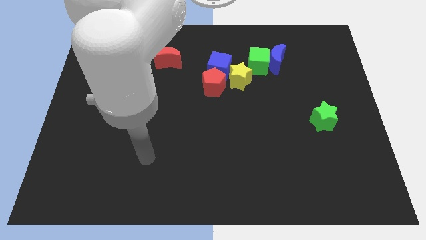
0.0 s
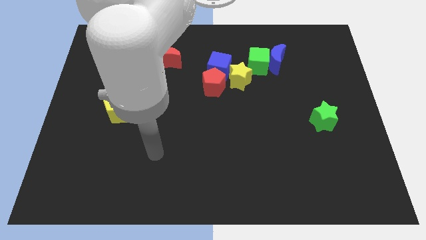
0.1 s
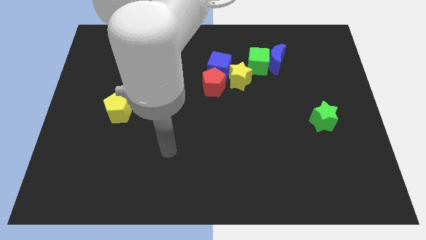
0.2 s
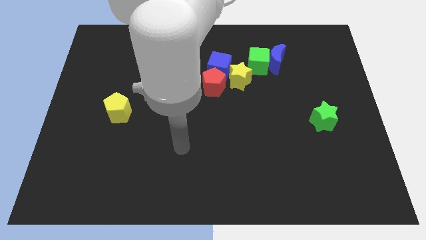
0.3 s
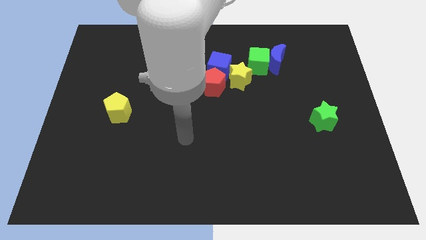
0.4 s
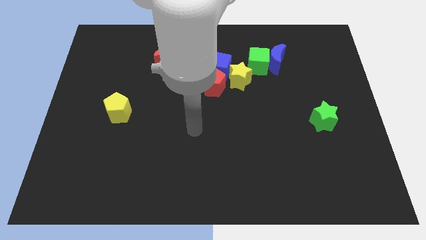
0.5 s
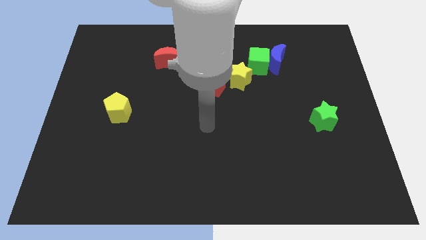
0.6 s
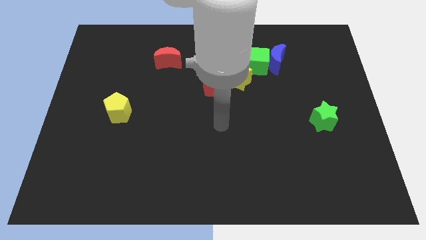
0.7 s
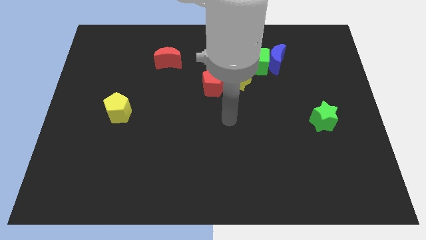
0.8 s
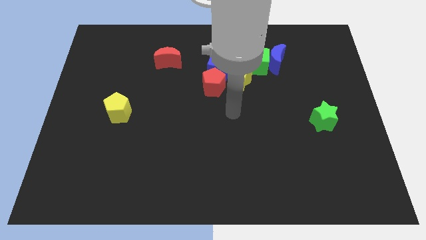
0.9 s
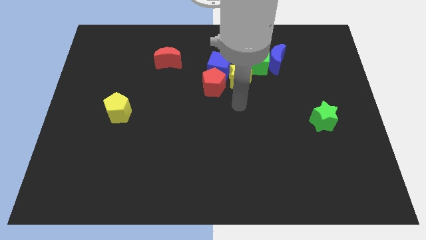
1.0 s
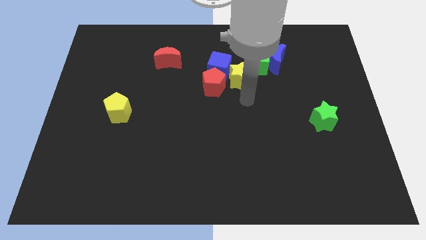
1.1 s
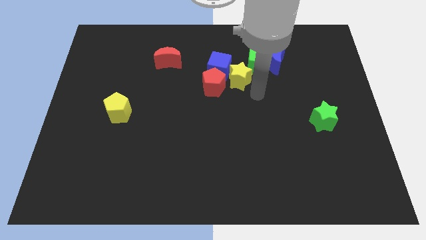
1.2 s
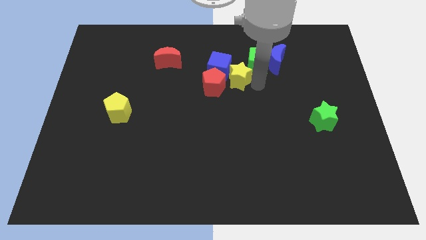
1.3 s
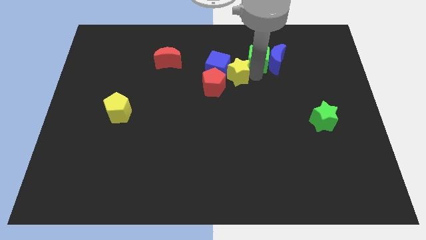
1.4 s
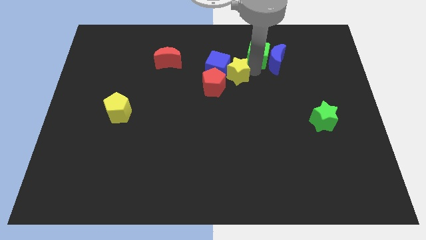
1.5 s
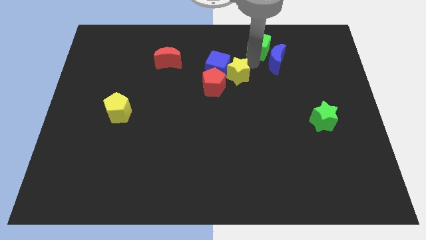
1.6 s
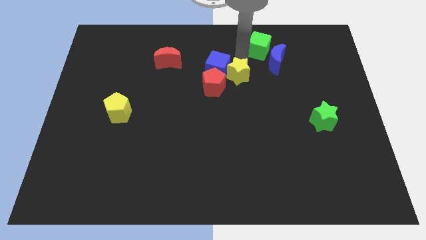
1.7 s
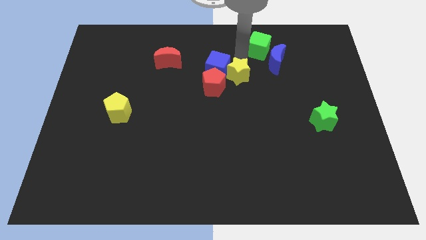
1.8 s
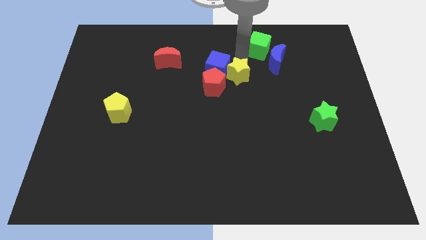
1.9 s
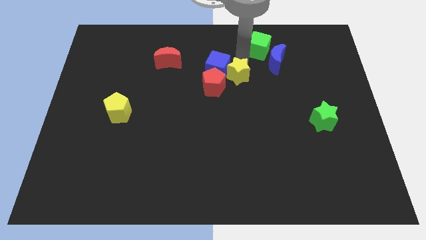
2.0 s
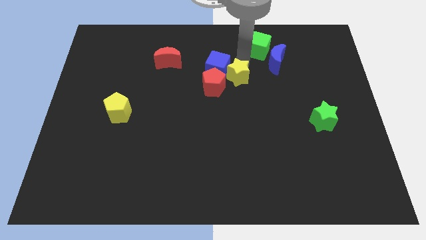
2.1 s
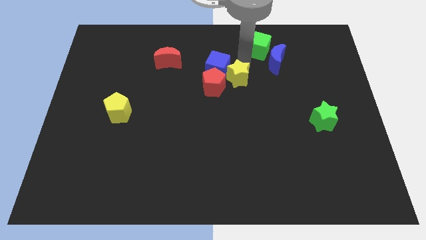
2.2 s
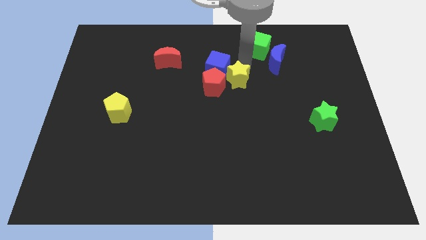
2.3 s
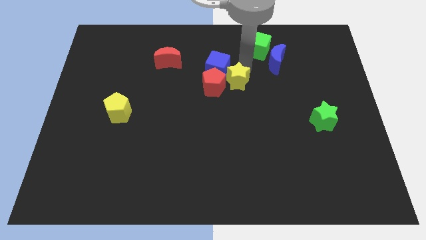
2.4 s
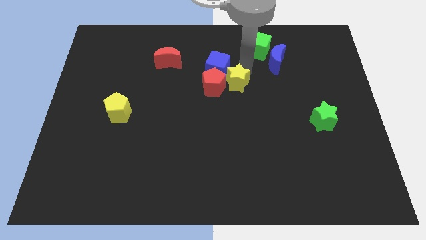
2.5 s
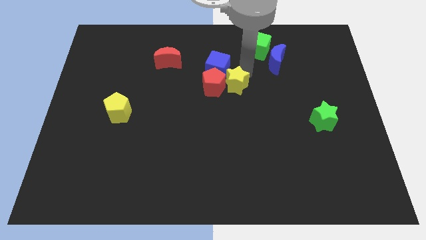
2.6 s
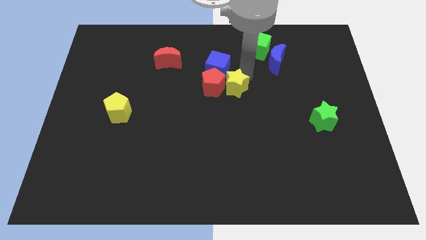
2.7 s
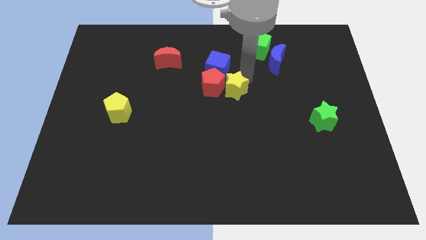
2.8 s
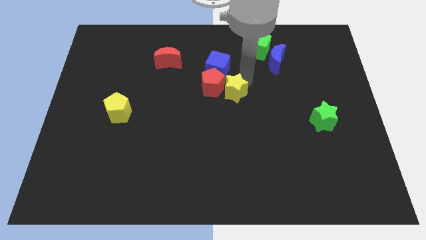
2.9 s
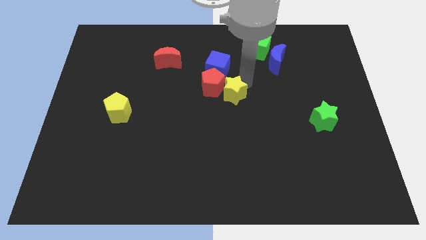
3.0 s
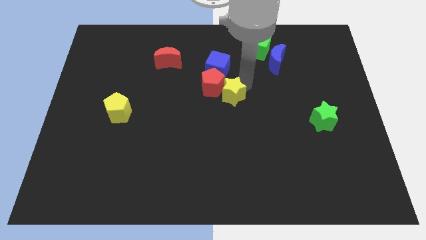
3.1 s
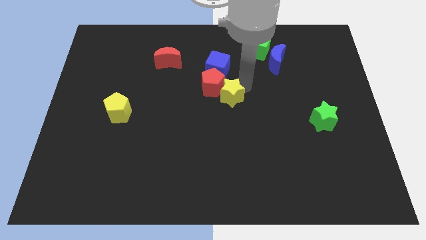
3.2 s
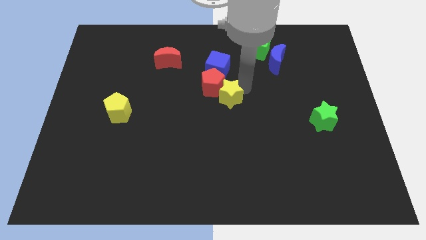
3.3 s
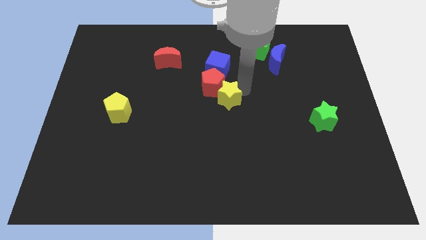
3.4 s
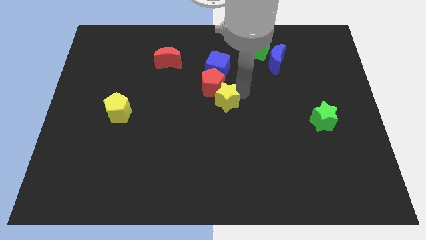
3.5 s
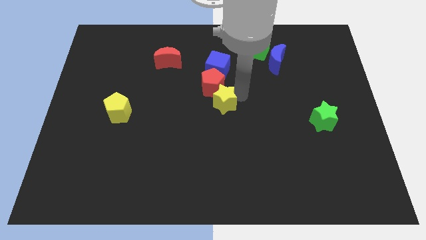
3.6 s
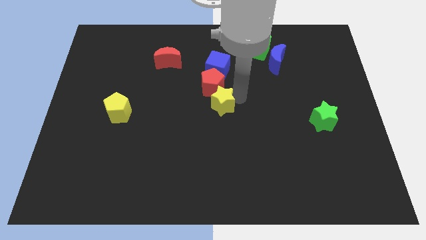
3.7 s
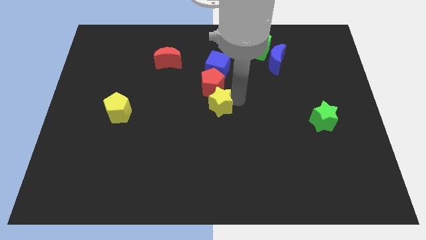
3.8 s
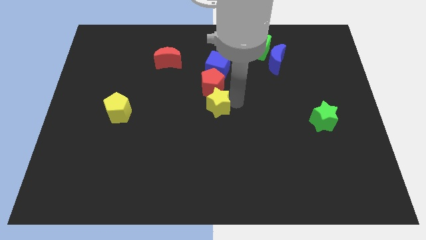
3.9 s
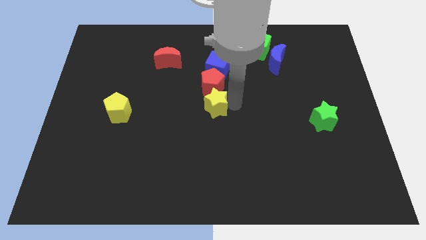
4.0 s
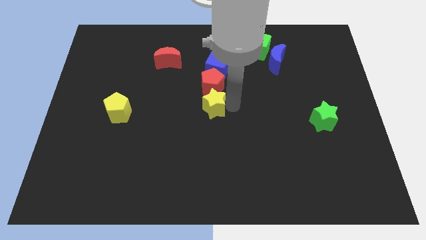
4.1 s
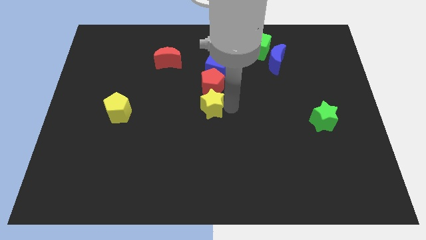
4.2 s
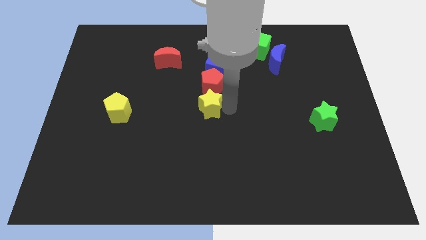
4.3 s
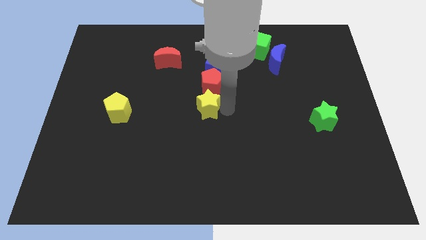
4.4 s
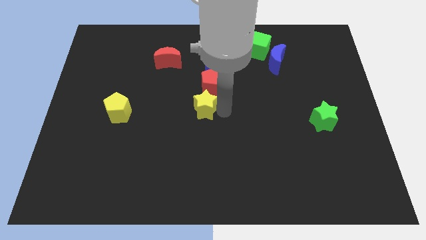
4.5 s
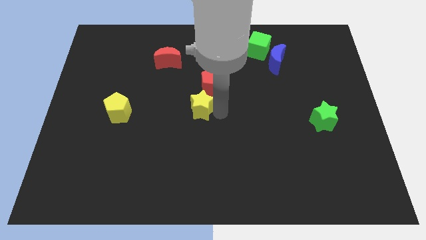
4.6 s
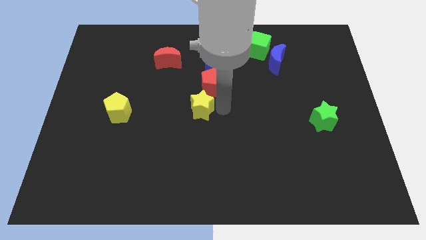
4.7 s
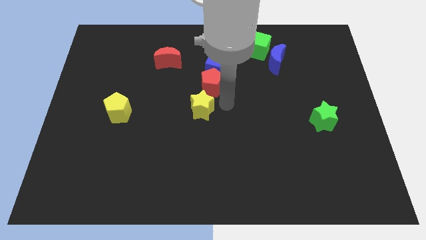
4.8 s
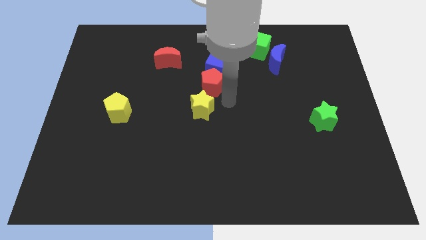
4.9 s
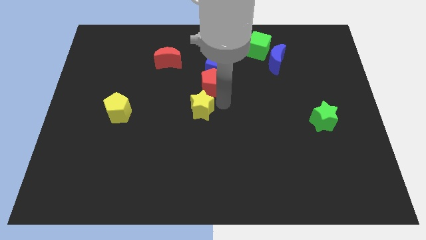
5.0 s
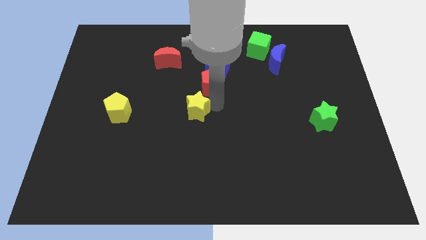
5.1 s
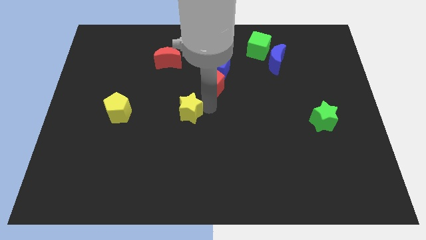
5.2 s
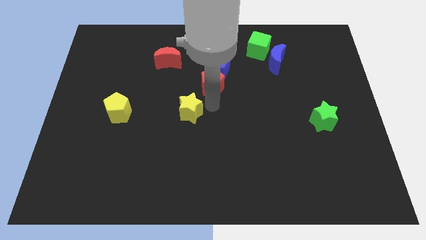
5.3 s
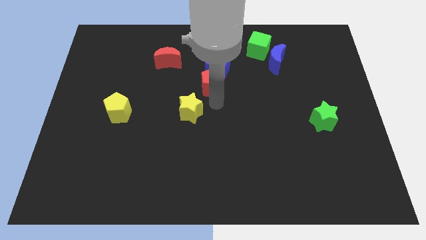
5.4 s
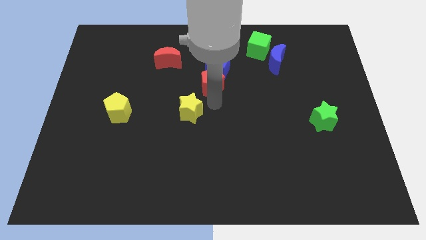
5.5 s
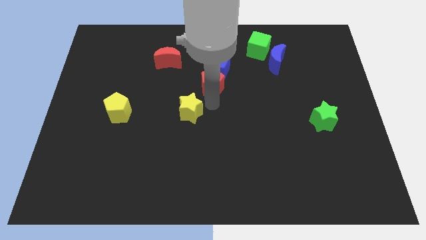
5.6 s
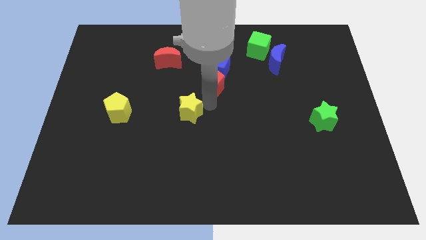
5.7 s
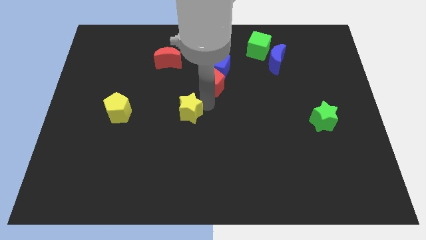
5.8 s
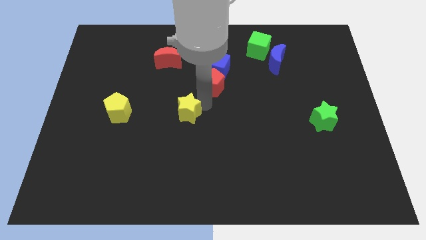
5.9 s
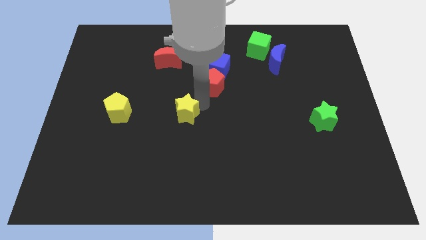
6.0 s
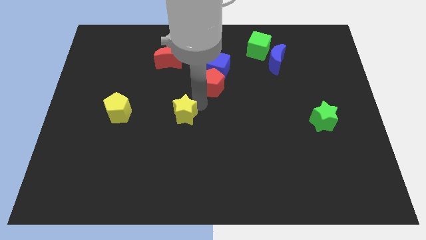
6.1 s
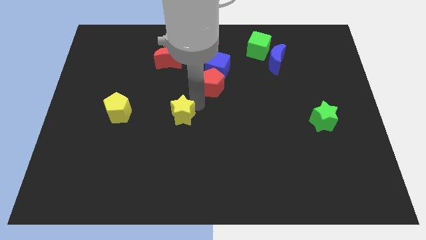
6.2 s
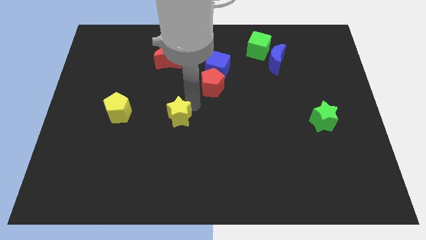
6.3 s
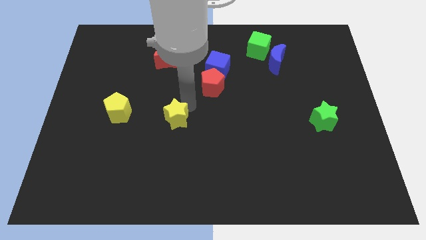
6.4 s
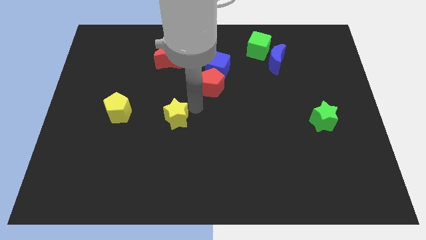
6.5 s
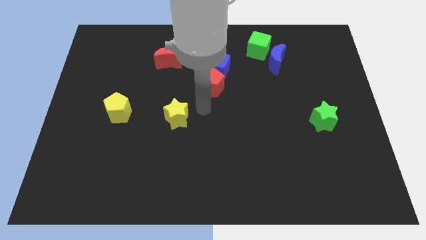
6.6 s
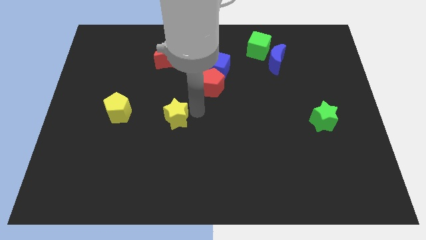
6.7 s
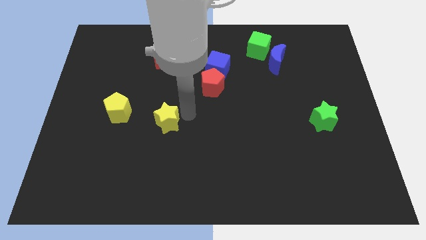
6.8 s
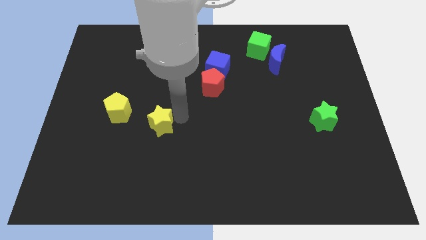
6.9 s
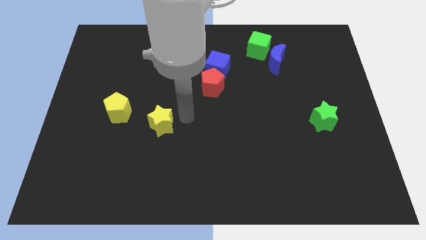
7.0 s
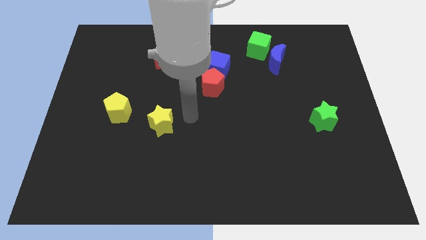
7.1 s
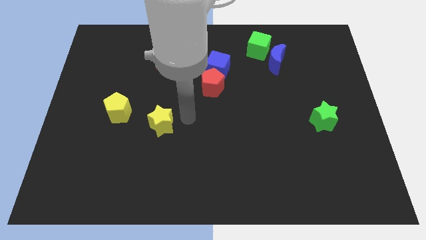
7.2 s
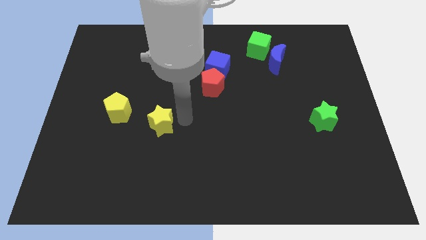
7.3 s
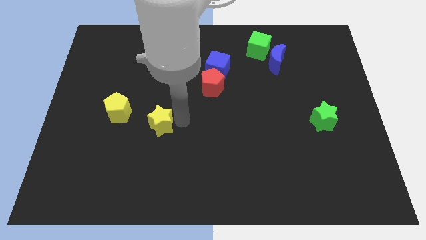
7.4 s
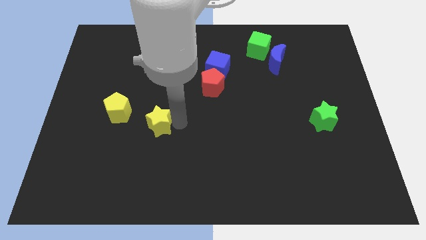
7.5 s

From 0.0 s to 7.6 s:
put the yellow star to the bottom right side of the yellow pentagon
